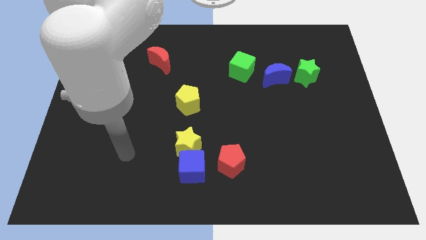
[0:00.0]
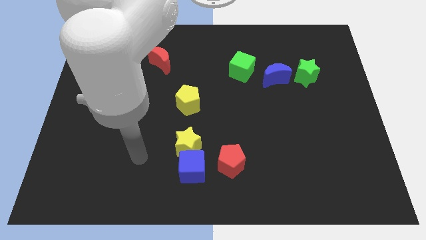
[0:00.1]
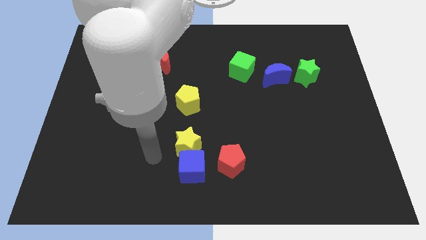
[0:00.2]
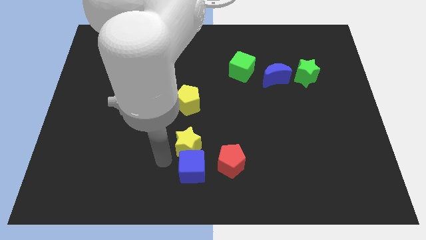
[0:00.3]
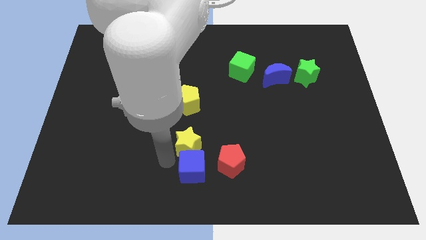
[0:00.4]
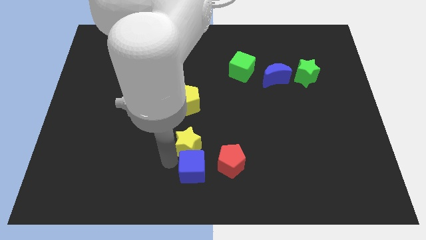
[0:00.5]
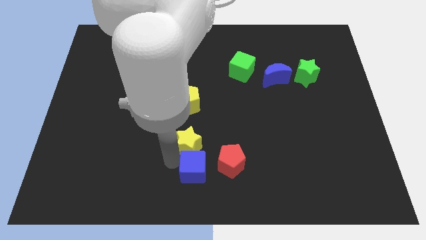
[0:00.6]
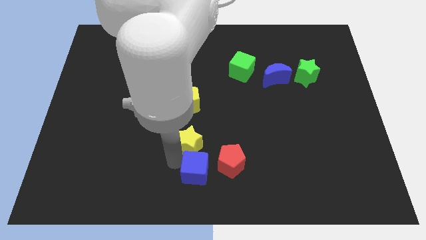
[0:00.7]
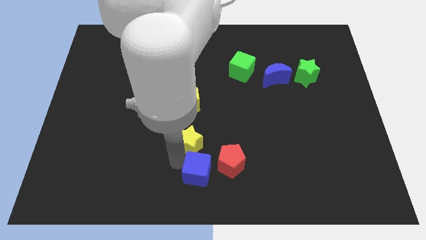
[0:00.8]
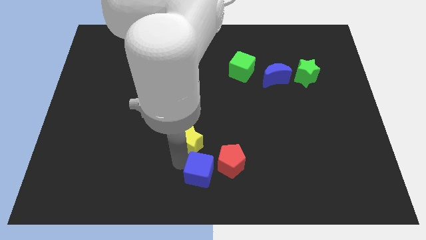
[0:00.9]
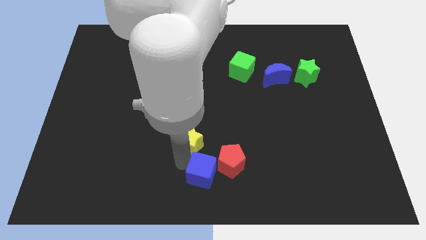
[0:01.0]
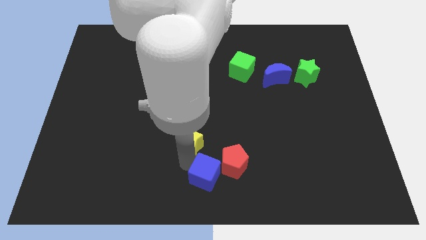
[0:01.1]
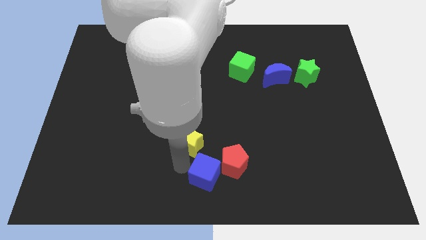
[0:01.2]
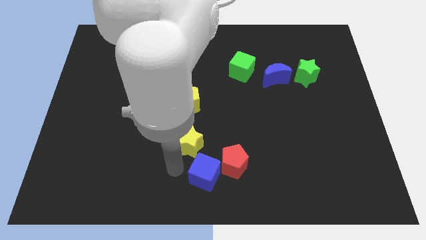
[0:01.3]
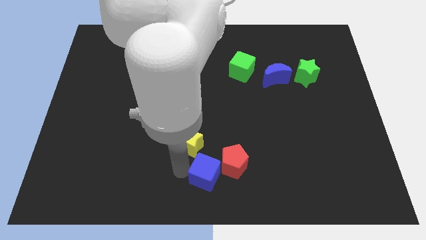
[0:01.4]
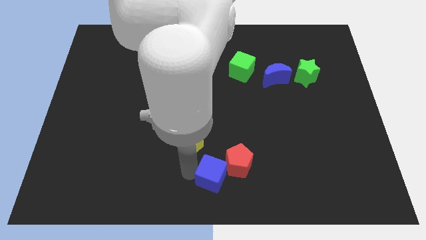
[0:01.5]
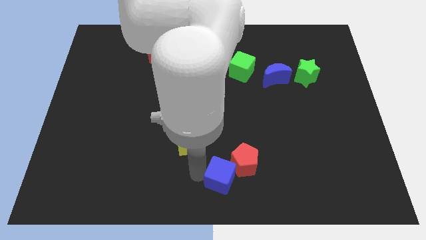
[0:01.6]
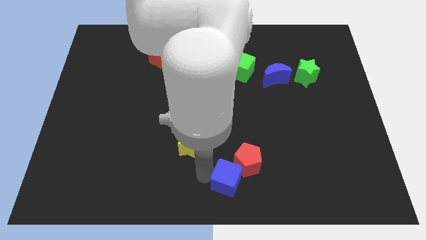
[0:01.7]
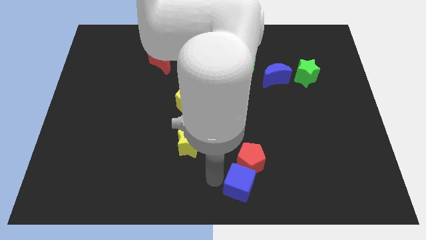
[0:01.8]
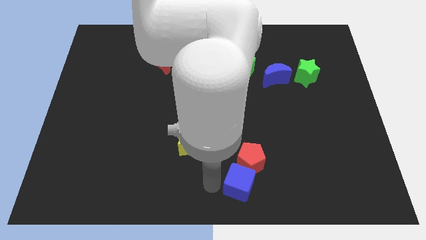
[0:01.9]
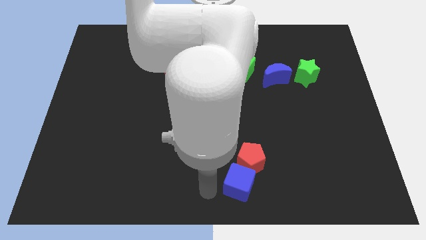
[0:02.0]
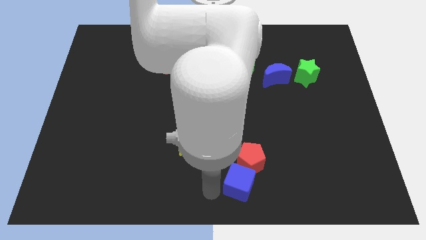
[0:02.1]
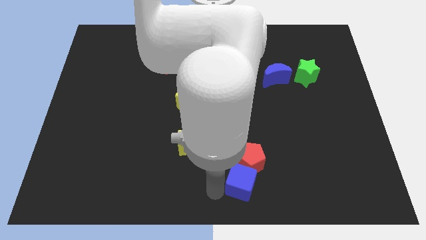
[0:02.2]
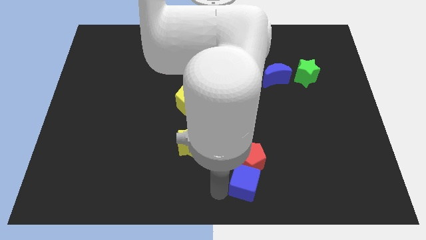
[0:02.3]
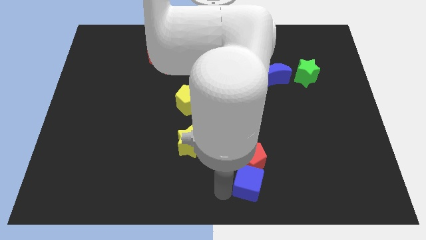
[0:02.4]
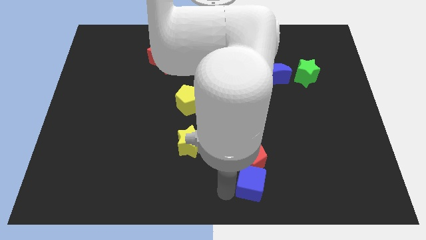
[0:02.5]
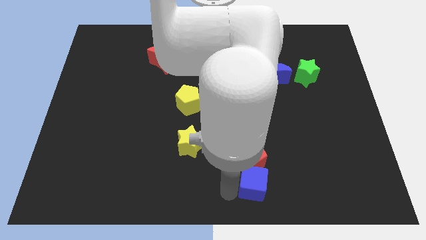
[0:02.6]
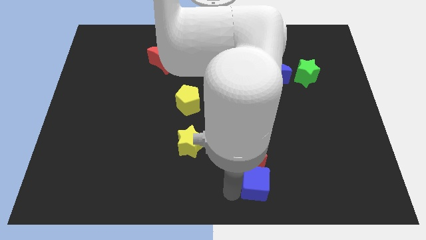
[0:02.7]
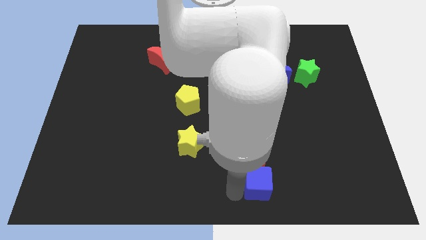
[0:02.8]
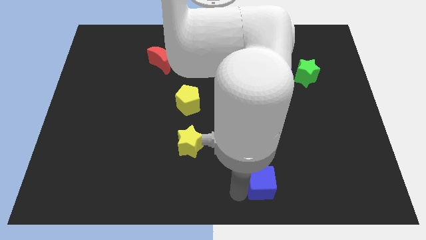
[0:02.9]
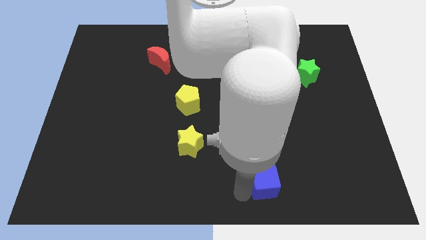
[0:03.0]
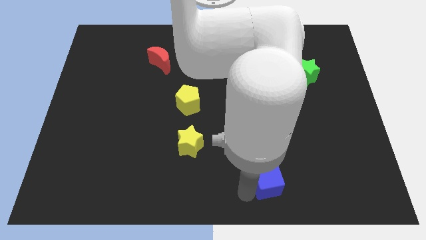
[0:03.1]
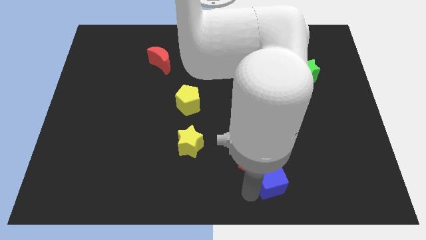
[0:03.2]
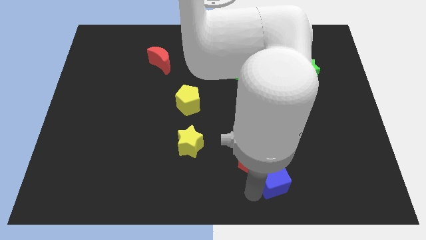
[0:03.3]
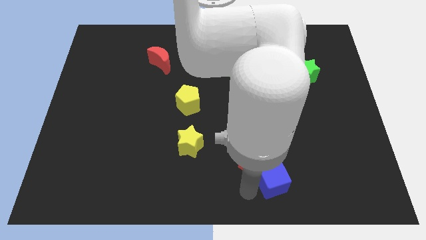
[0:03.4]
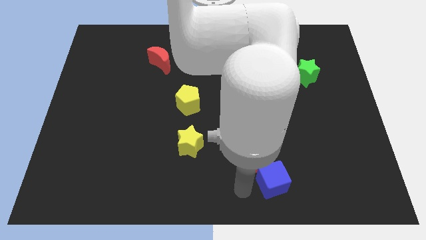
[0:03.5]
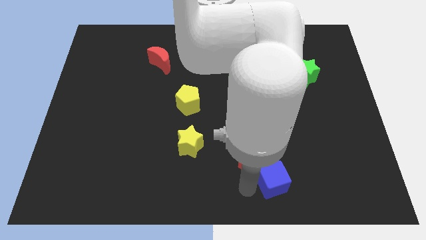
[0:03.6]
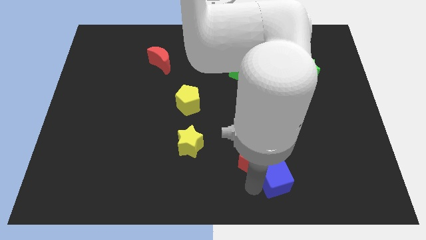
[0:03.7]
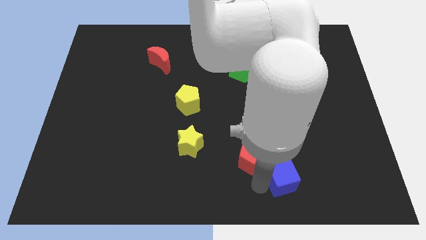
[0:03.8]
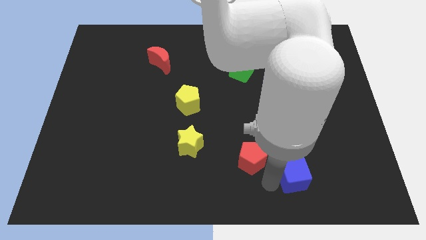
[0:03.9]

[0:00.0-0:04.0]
slide the blue cube right

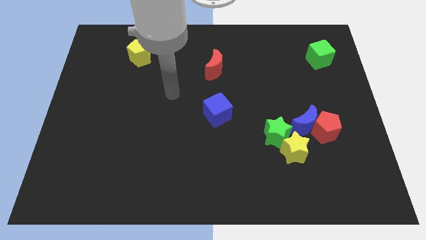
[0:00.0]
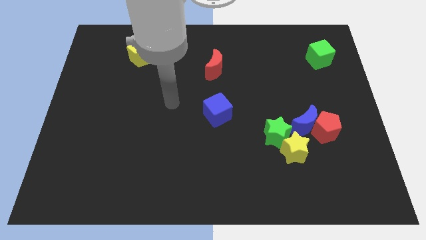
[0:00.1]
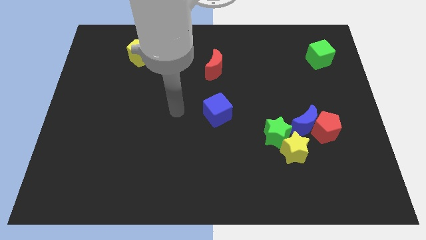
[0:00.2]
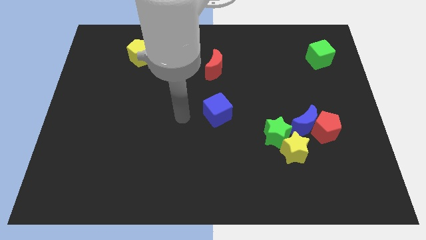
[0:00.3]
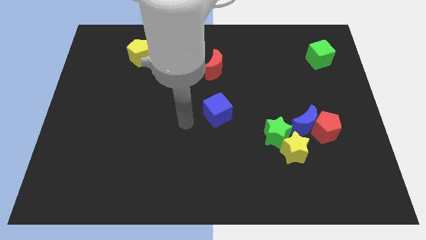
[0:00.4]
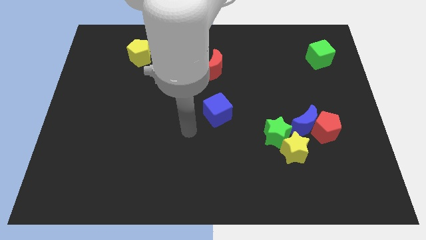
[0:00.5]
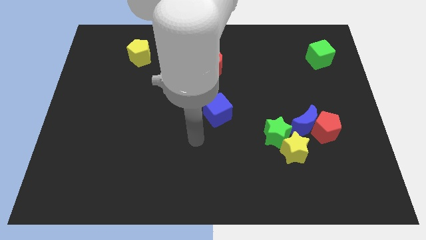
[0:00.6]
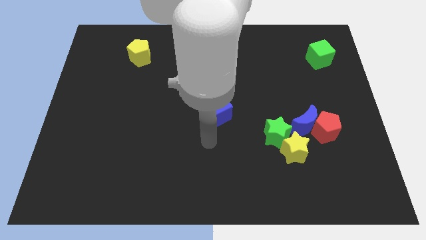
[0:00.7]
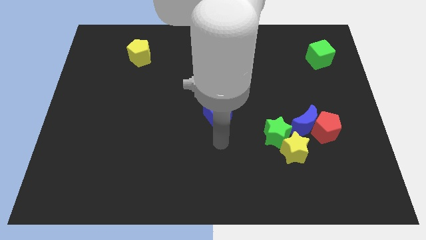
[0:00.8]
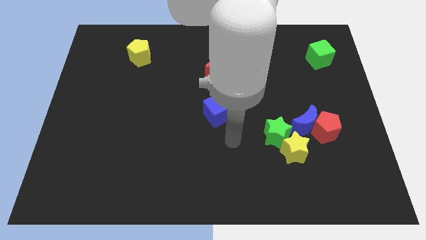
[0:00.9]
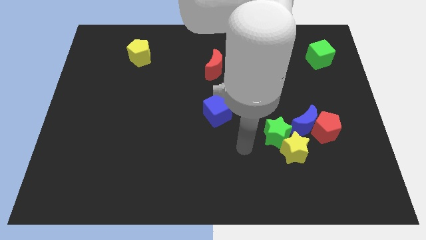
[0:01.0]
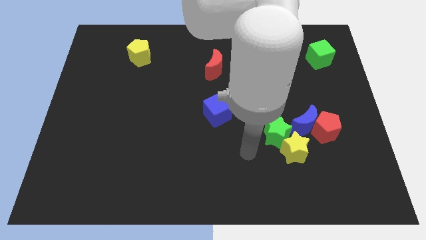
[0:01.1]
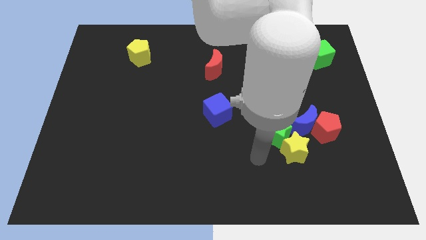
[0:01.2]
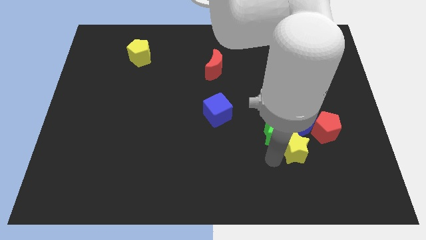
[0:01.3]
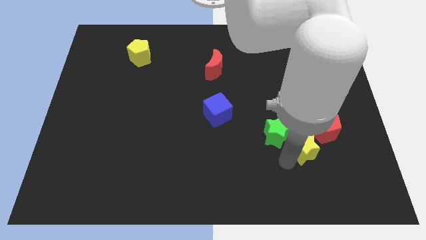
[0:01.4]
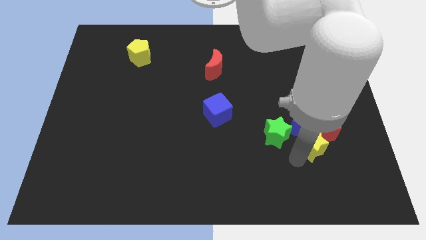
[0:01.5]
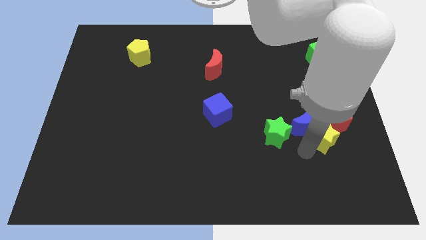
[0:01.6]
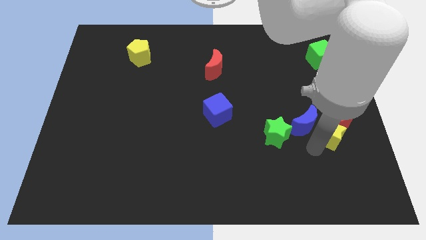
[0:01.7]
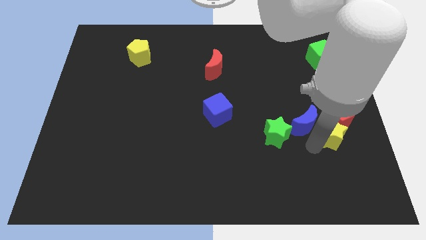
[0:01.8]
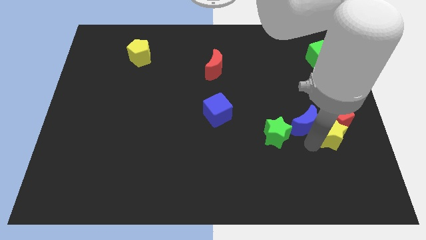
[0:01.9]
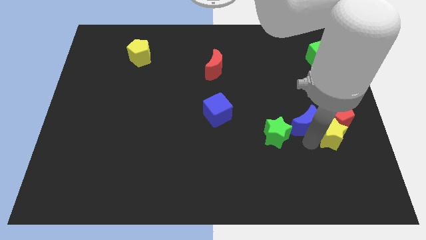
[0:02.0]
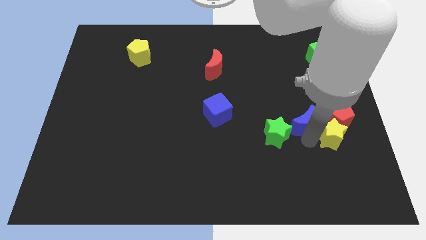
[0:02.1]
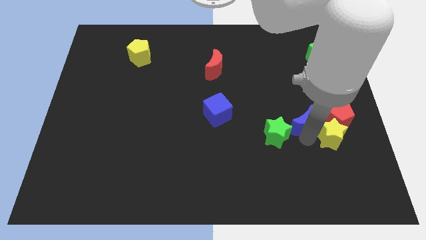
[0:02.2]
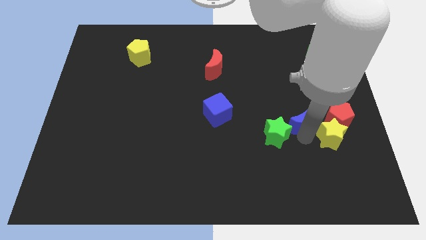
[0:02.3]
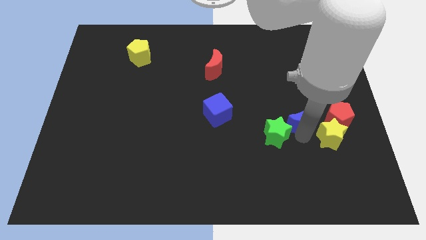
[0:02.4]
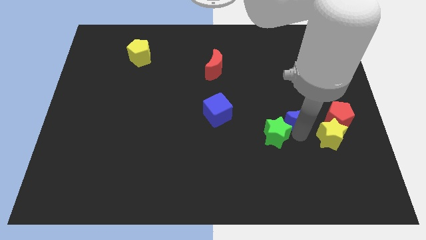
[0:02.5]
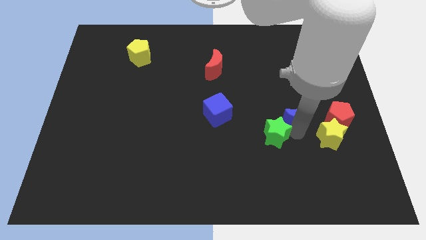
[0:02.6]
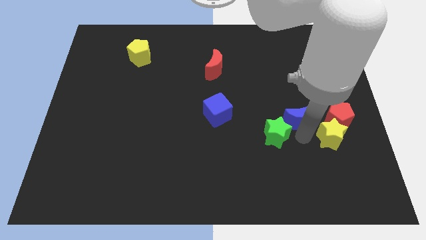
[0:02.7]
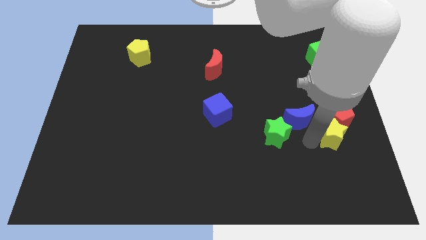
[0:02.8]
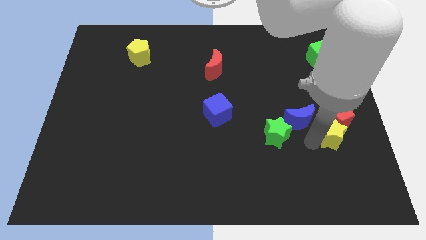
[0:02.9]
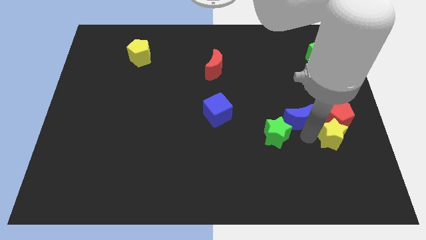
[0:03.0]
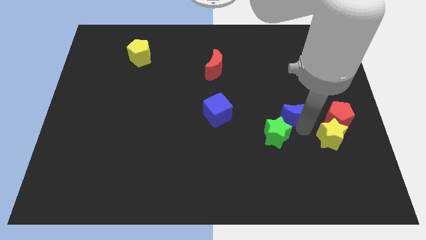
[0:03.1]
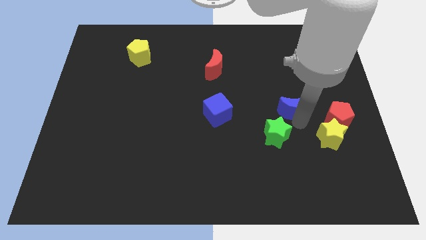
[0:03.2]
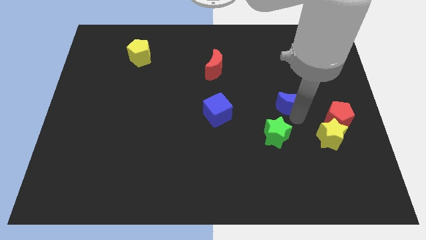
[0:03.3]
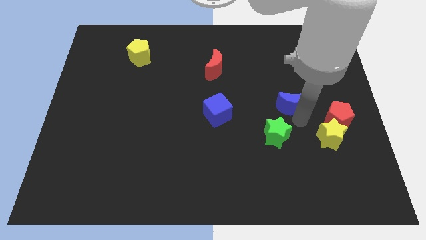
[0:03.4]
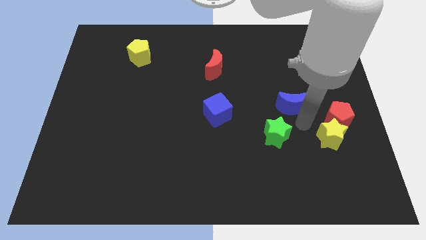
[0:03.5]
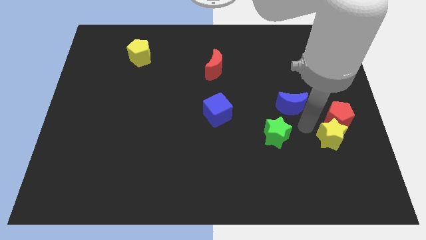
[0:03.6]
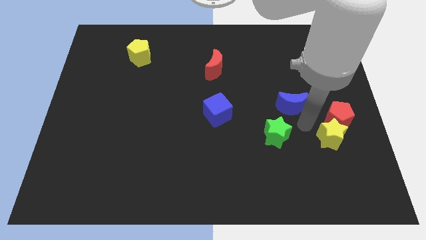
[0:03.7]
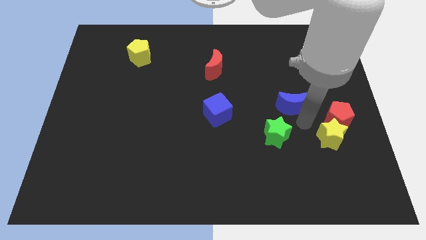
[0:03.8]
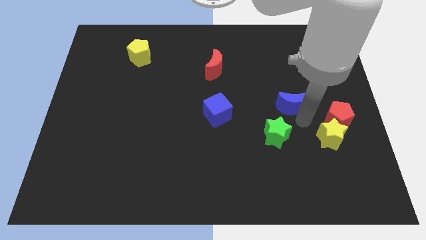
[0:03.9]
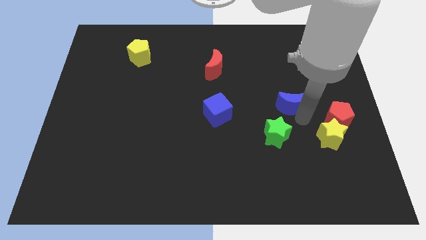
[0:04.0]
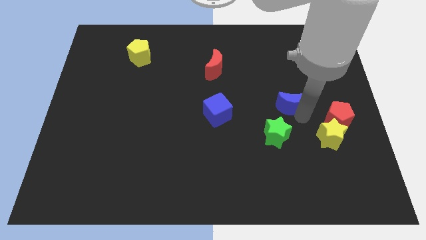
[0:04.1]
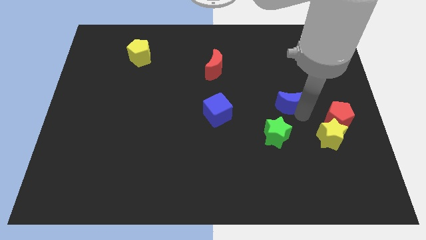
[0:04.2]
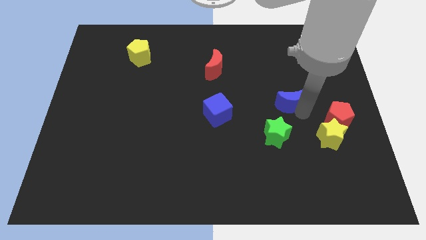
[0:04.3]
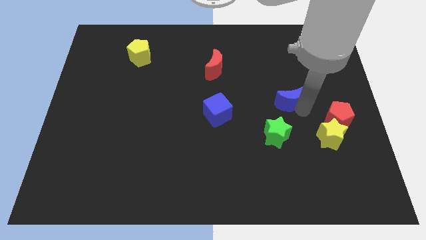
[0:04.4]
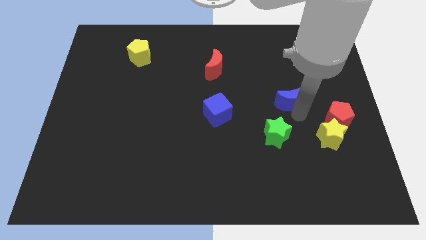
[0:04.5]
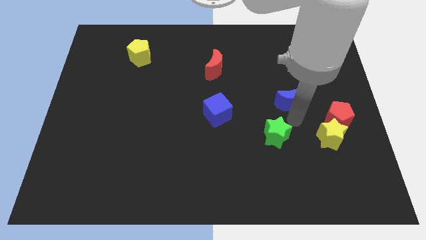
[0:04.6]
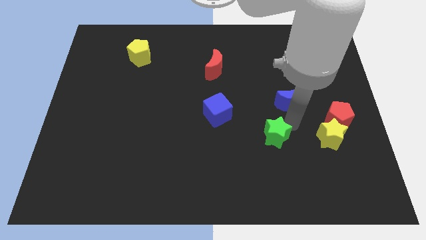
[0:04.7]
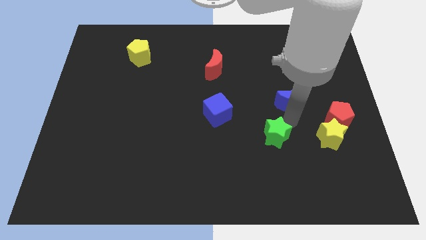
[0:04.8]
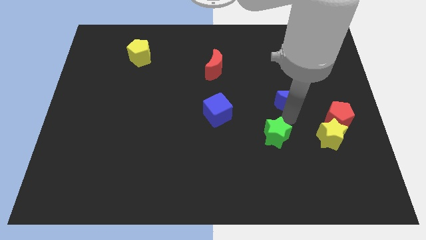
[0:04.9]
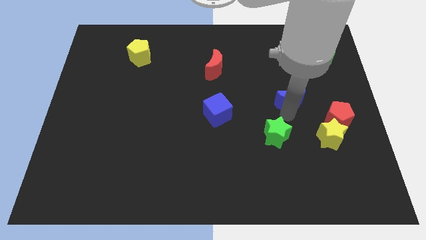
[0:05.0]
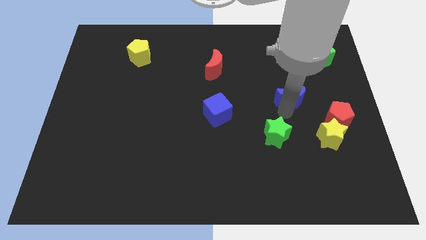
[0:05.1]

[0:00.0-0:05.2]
slightly move the blue moon up
